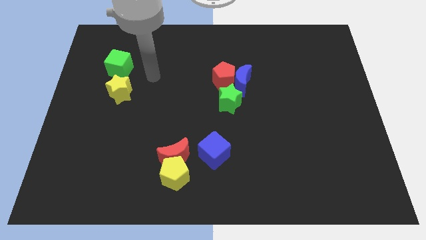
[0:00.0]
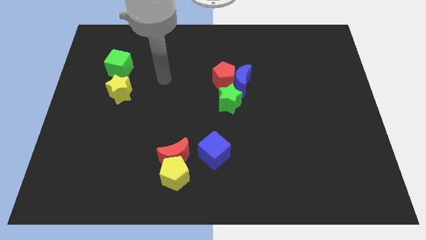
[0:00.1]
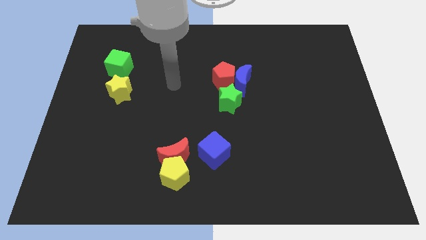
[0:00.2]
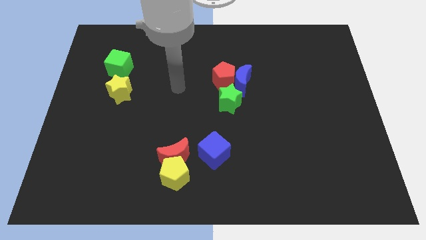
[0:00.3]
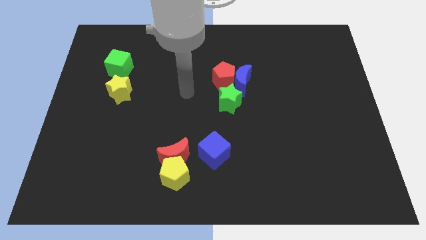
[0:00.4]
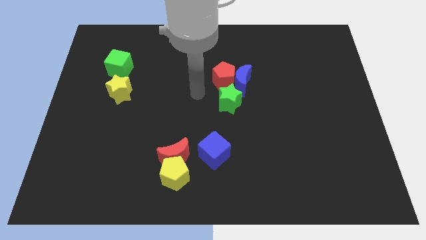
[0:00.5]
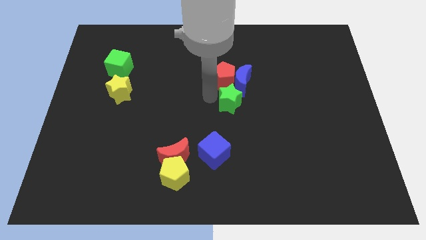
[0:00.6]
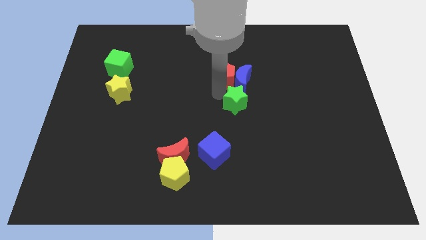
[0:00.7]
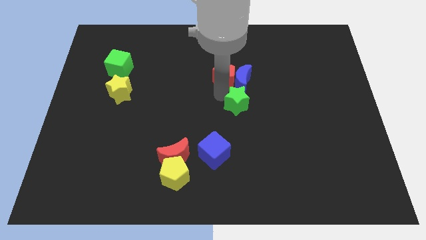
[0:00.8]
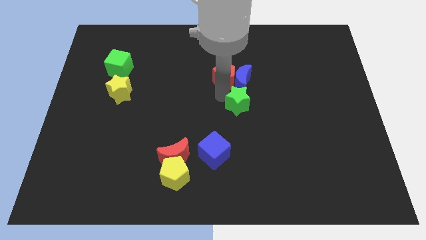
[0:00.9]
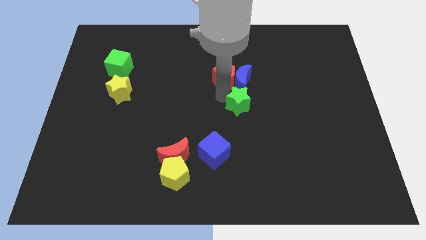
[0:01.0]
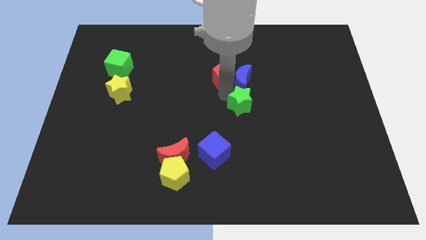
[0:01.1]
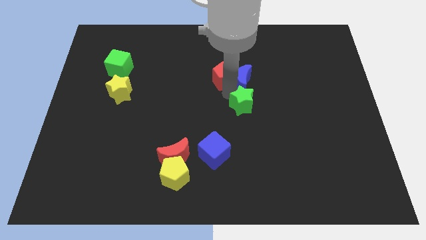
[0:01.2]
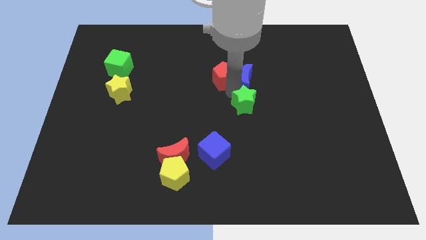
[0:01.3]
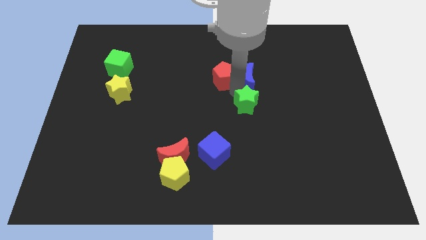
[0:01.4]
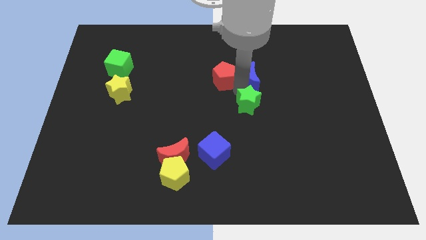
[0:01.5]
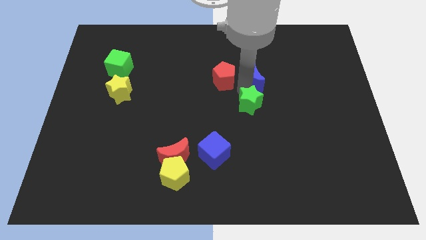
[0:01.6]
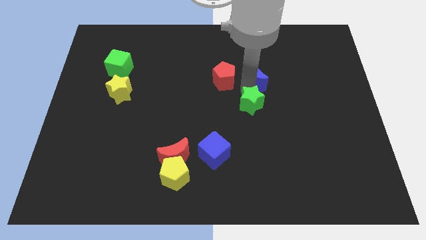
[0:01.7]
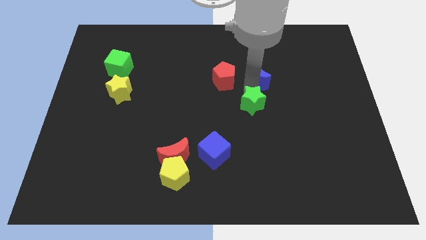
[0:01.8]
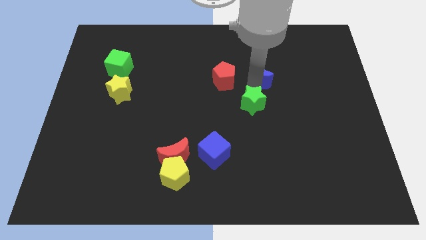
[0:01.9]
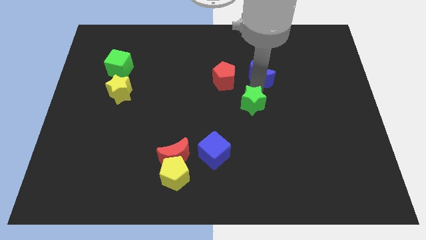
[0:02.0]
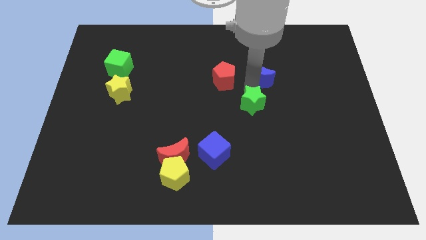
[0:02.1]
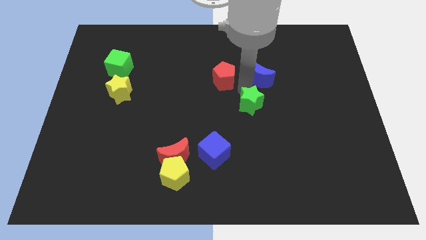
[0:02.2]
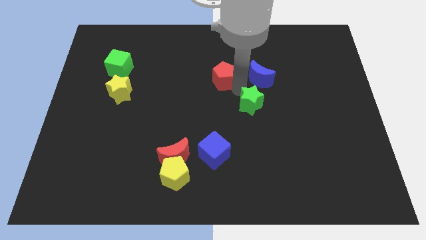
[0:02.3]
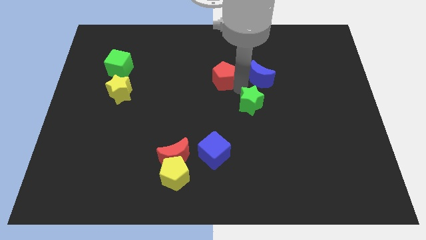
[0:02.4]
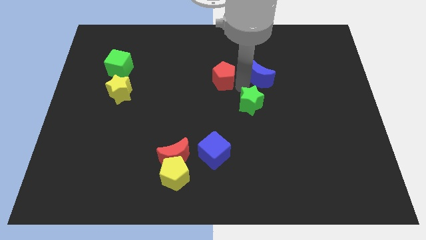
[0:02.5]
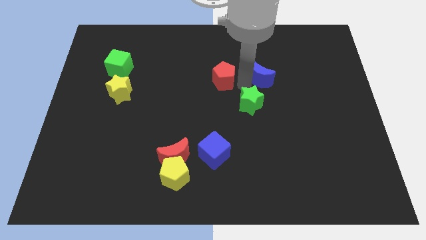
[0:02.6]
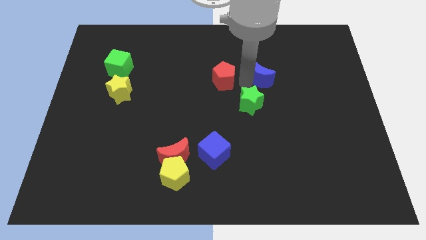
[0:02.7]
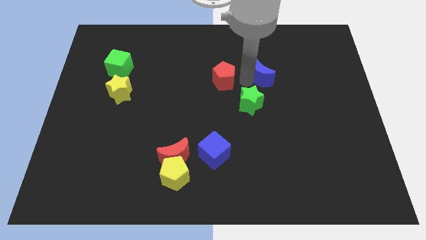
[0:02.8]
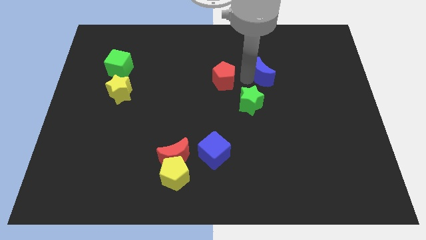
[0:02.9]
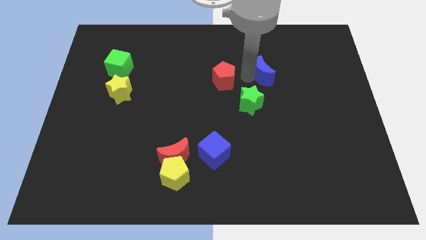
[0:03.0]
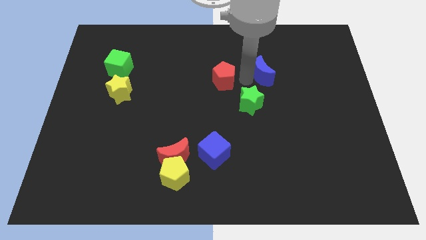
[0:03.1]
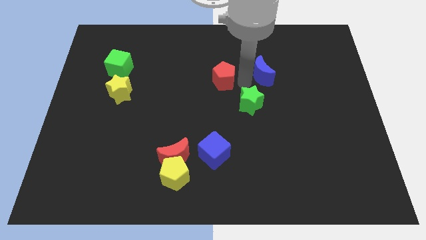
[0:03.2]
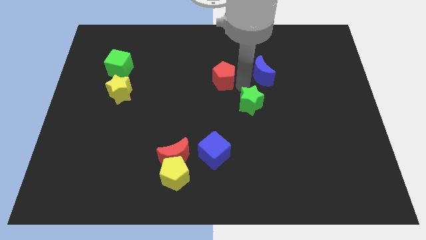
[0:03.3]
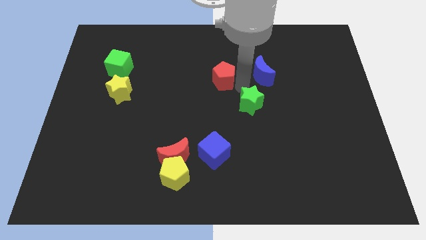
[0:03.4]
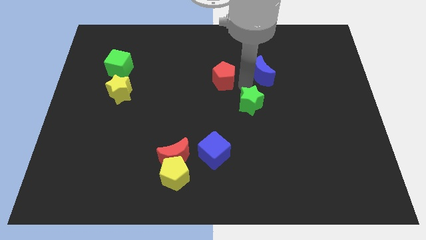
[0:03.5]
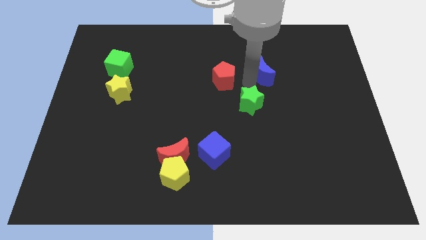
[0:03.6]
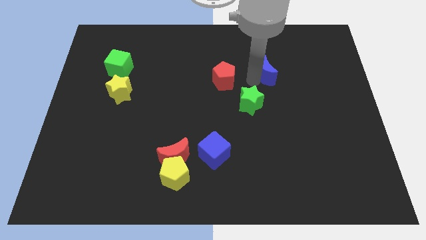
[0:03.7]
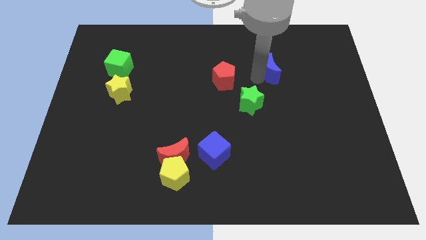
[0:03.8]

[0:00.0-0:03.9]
move the blue moon away from the red pentagon and green star

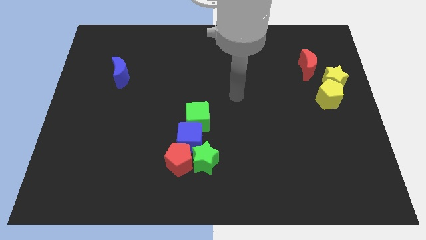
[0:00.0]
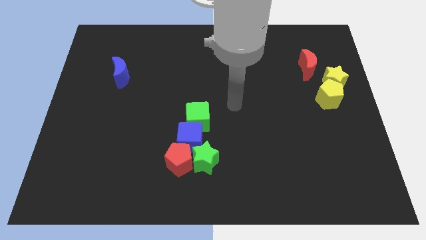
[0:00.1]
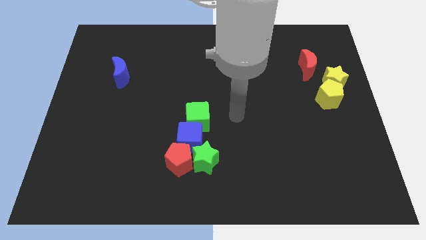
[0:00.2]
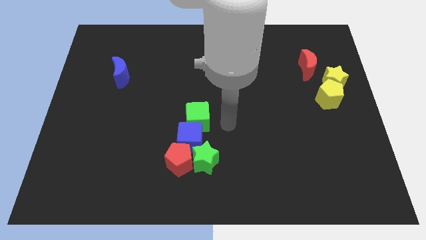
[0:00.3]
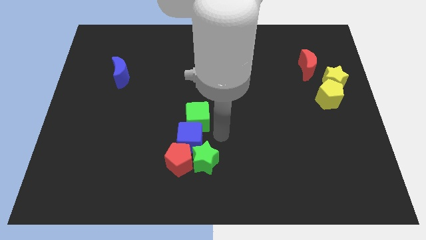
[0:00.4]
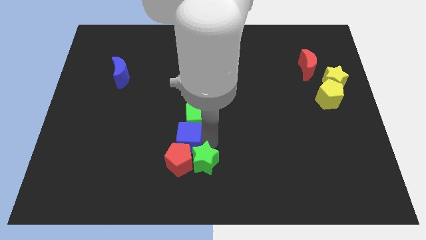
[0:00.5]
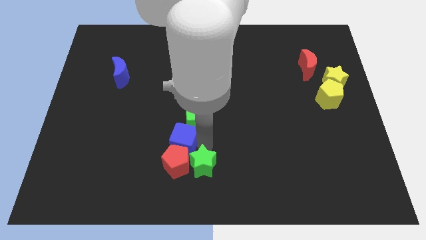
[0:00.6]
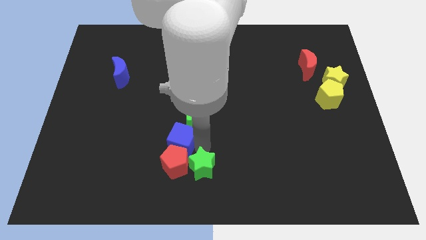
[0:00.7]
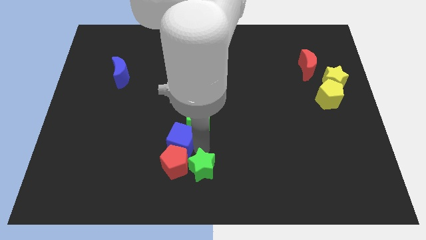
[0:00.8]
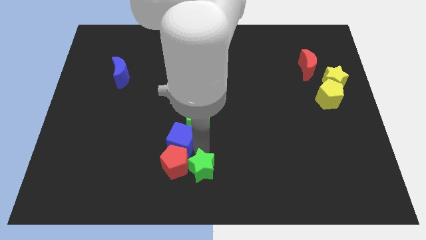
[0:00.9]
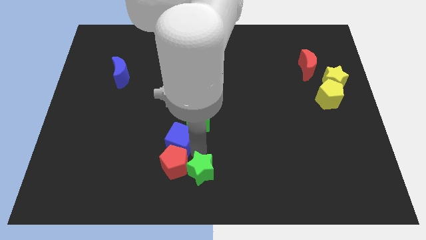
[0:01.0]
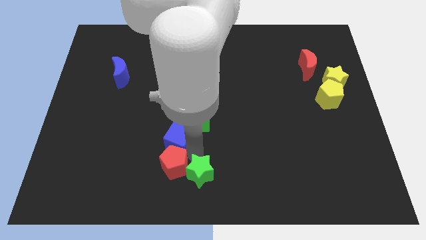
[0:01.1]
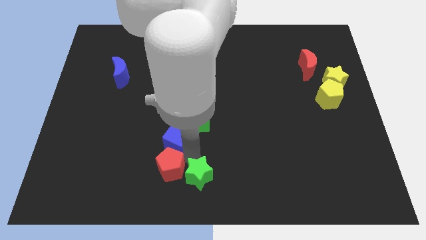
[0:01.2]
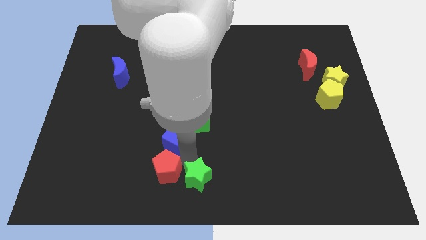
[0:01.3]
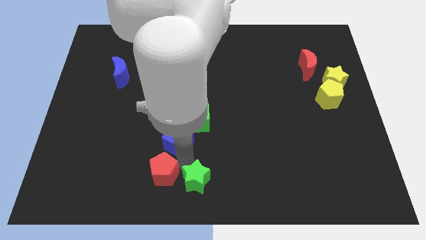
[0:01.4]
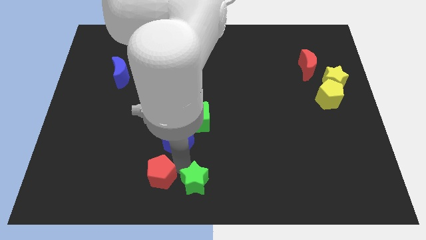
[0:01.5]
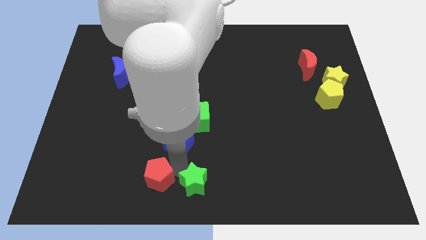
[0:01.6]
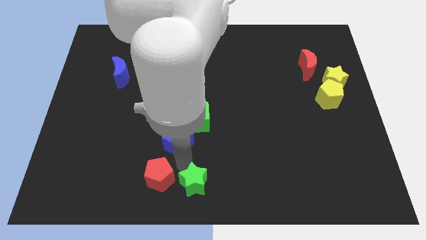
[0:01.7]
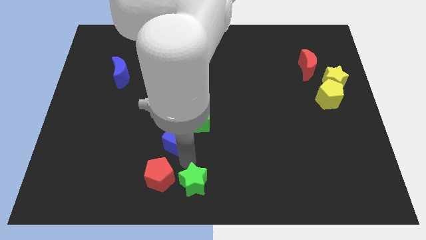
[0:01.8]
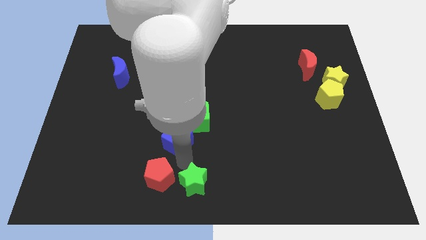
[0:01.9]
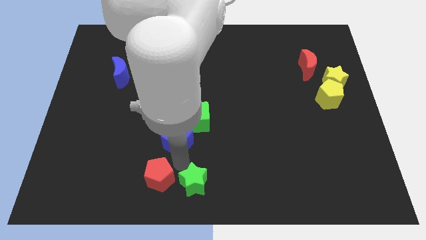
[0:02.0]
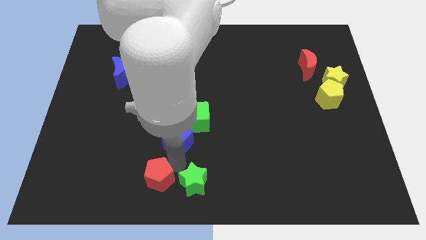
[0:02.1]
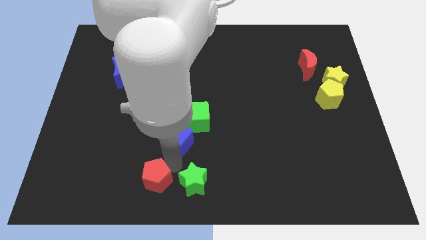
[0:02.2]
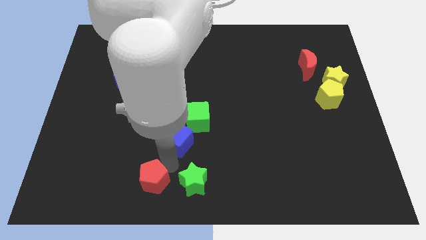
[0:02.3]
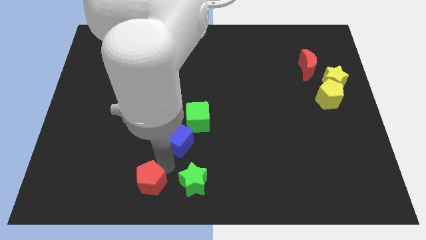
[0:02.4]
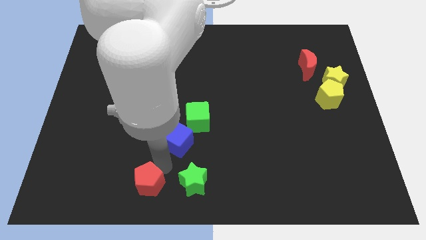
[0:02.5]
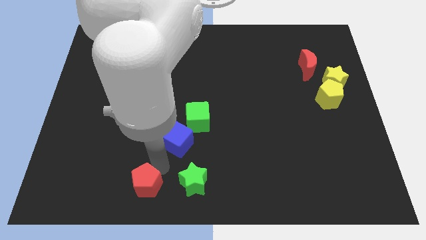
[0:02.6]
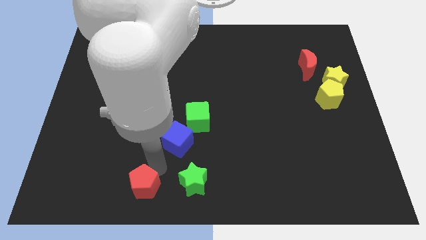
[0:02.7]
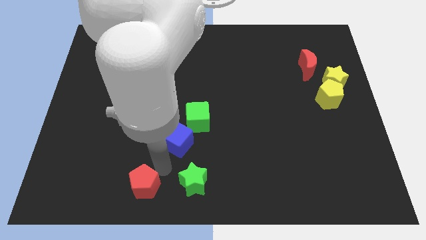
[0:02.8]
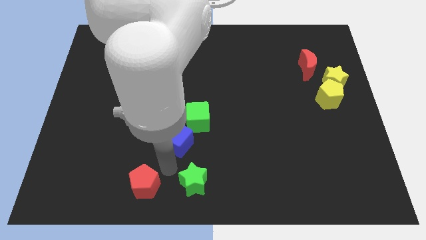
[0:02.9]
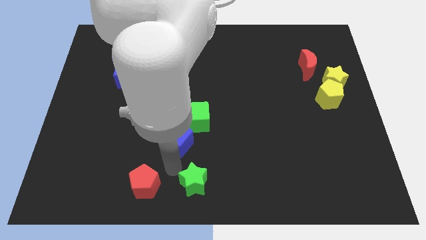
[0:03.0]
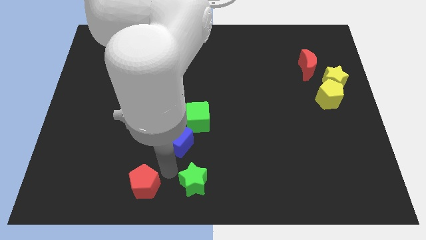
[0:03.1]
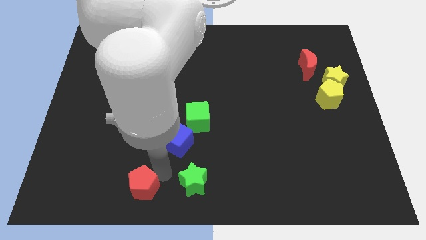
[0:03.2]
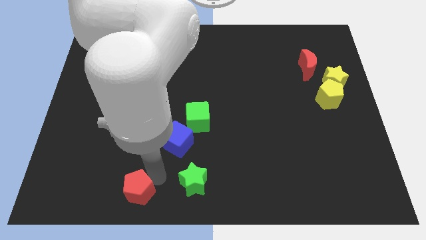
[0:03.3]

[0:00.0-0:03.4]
move the red pentagon away from the green star and blue cube

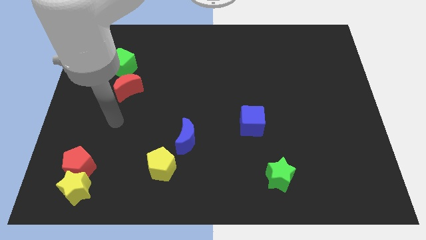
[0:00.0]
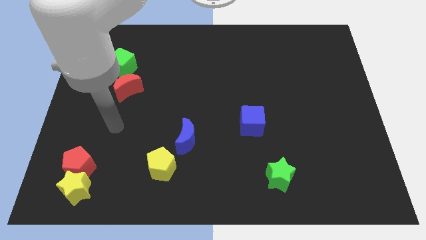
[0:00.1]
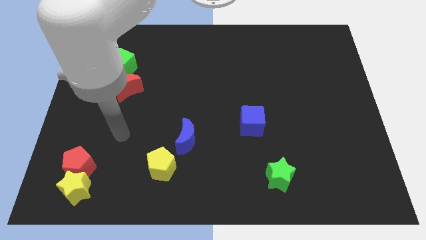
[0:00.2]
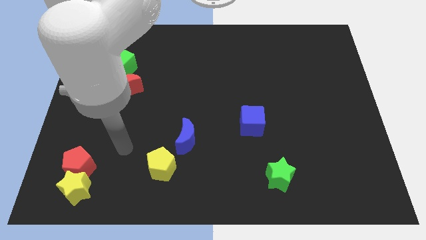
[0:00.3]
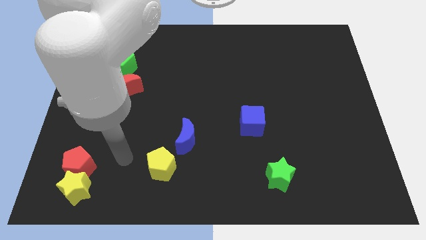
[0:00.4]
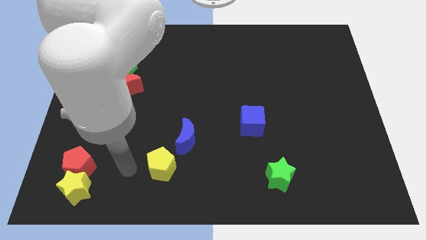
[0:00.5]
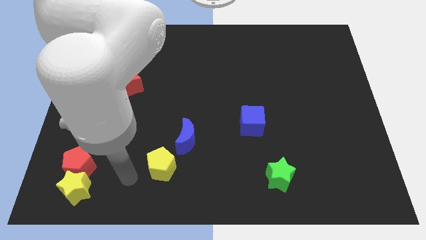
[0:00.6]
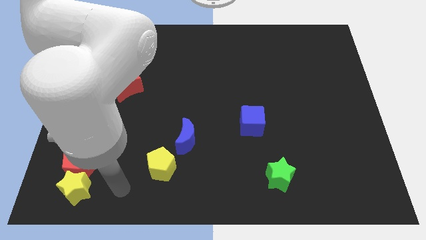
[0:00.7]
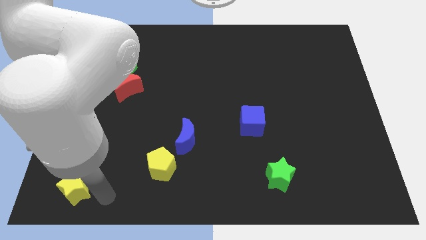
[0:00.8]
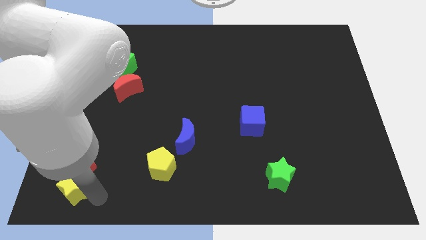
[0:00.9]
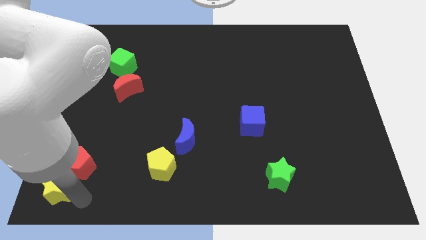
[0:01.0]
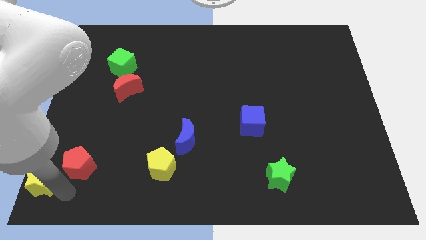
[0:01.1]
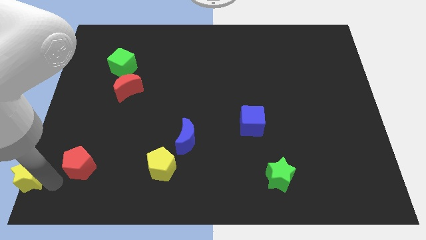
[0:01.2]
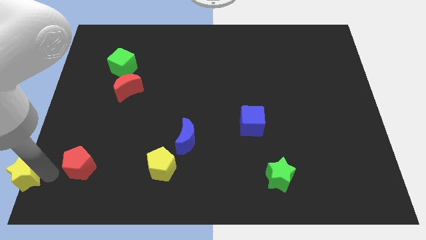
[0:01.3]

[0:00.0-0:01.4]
pull the red pentagon apart from the yellow star

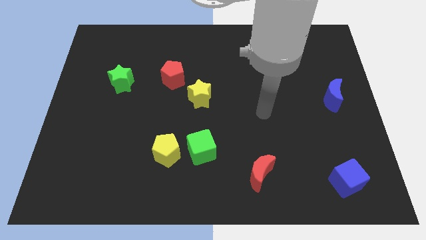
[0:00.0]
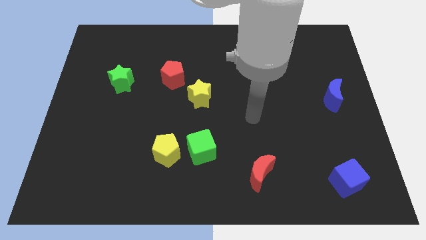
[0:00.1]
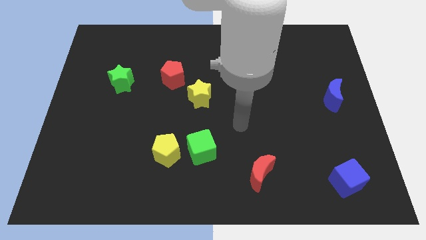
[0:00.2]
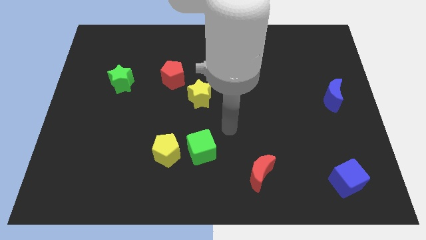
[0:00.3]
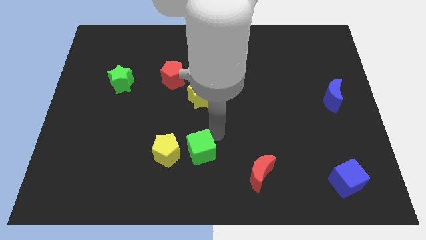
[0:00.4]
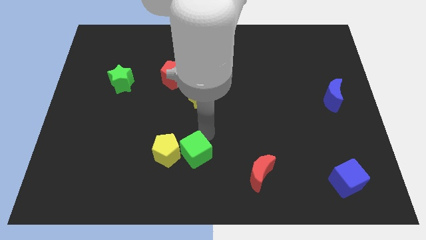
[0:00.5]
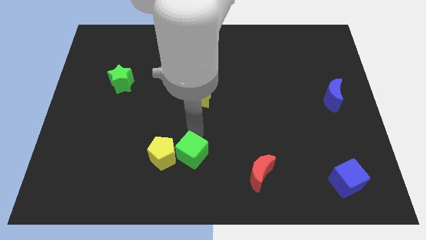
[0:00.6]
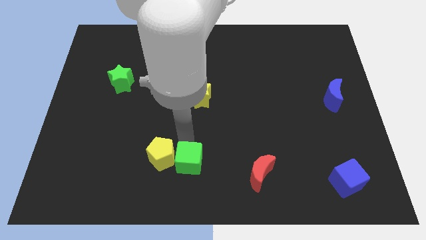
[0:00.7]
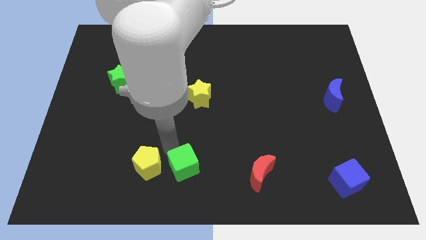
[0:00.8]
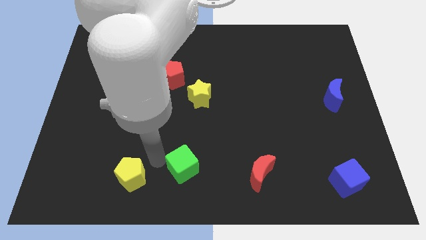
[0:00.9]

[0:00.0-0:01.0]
move the green cube away from the yellow pentagon
